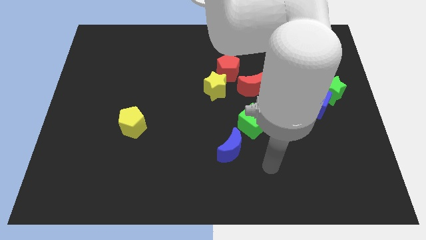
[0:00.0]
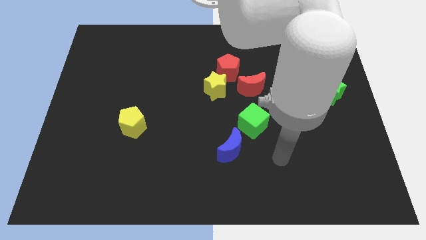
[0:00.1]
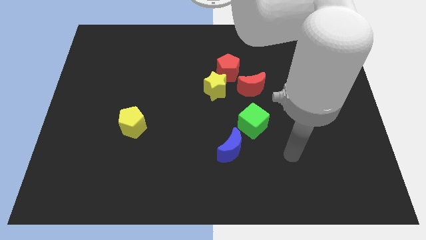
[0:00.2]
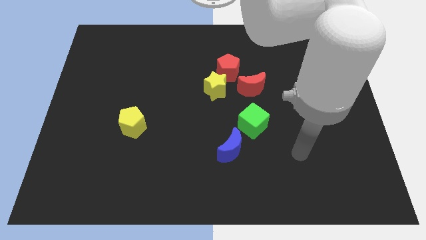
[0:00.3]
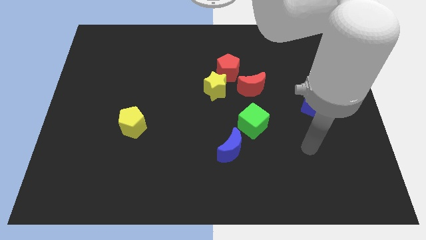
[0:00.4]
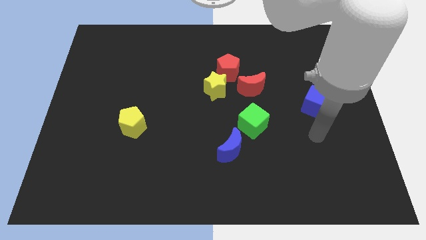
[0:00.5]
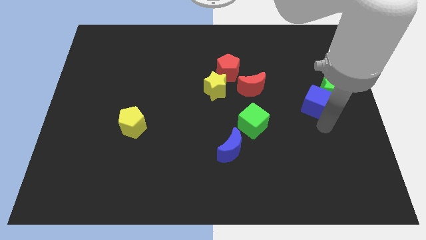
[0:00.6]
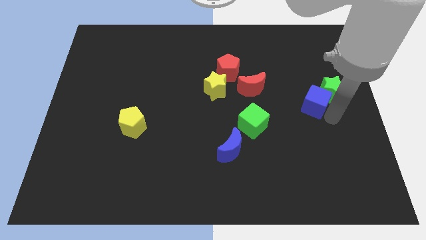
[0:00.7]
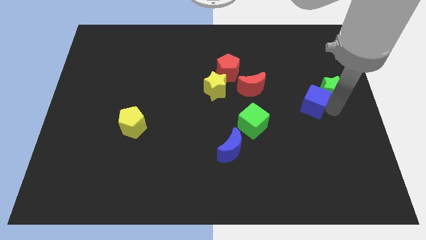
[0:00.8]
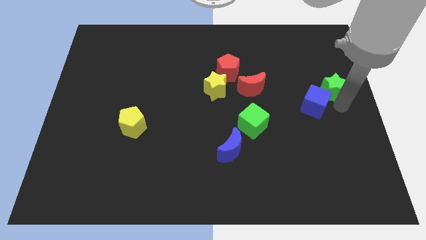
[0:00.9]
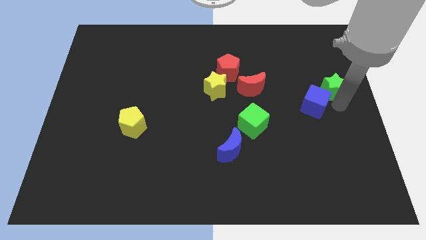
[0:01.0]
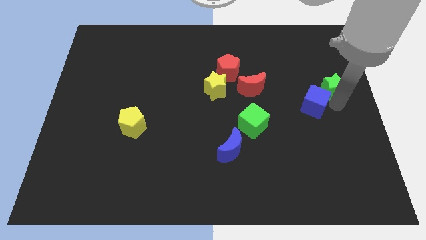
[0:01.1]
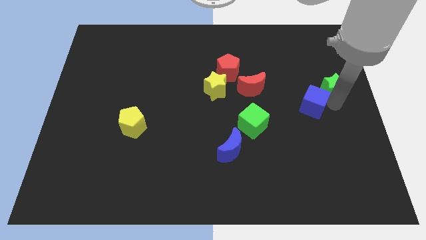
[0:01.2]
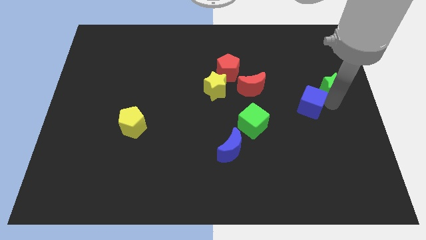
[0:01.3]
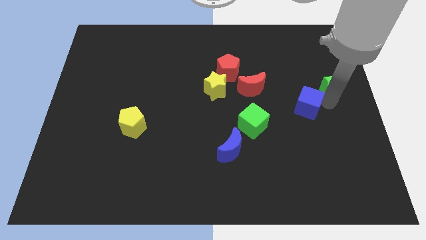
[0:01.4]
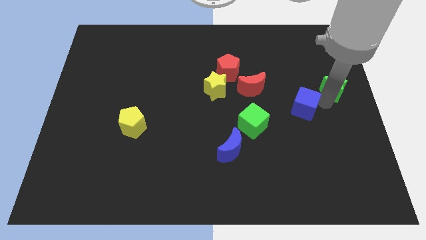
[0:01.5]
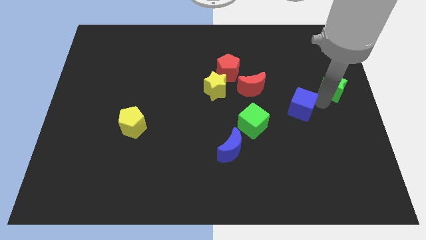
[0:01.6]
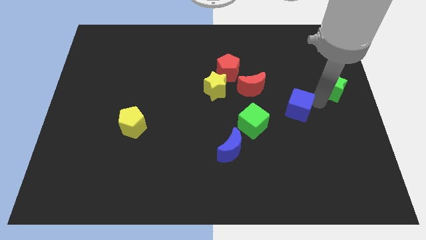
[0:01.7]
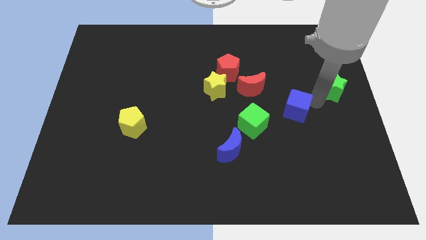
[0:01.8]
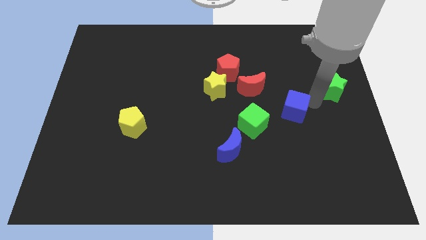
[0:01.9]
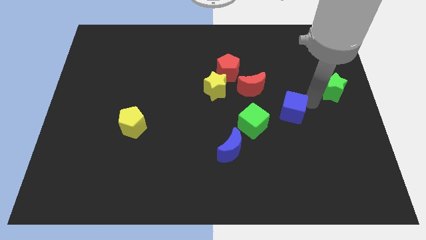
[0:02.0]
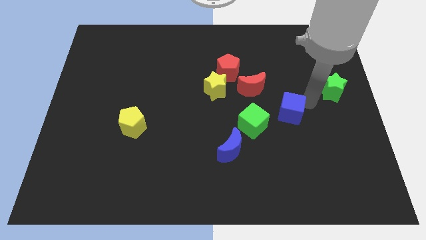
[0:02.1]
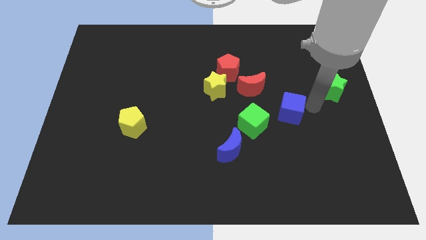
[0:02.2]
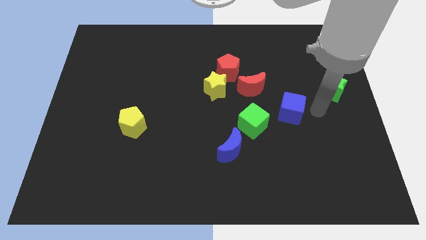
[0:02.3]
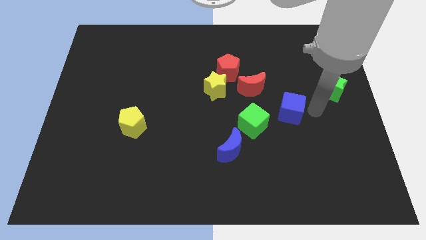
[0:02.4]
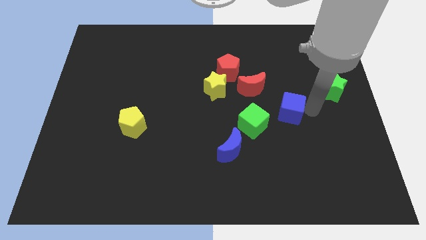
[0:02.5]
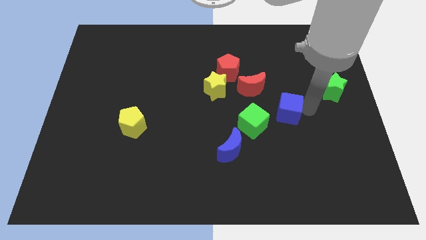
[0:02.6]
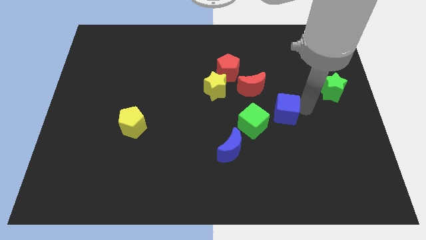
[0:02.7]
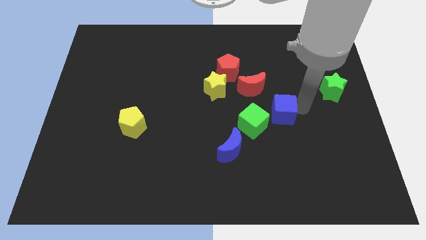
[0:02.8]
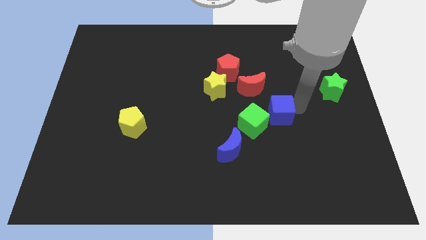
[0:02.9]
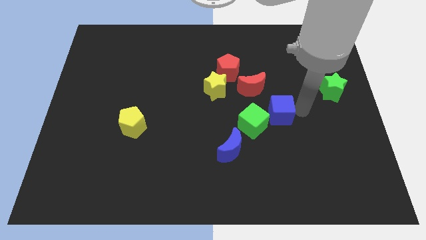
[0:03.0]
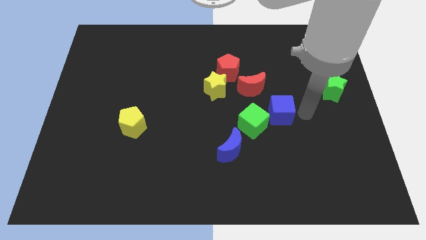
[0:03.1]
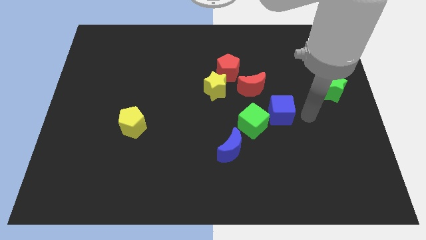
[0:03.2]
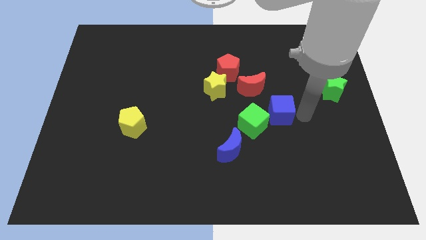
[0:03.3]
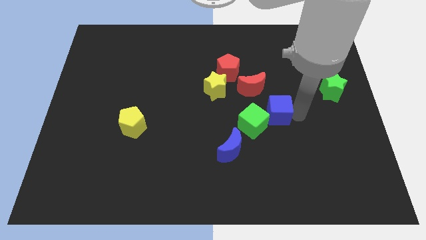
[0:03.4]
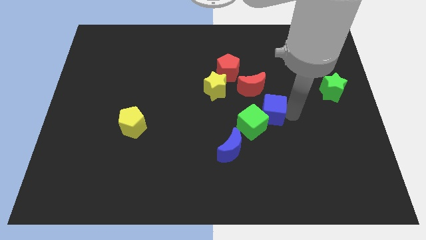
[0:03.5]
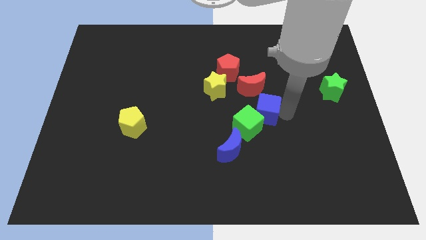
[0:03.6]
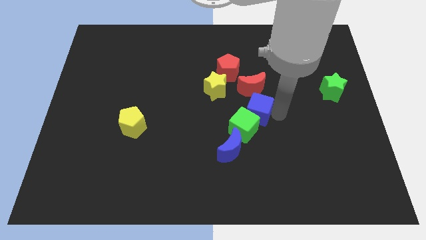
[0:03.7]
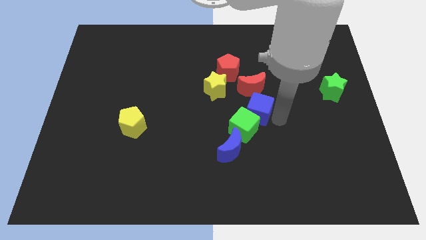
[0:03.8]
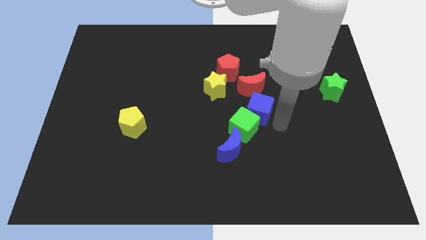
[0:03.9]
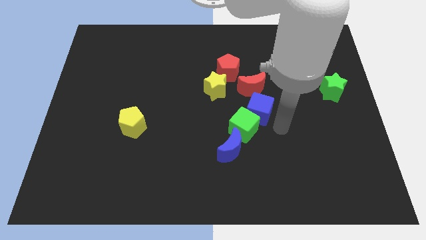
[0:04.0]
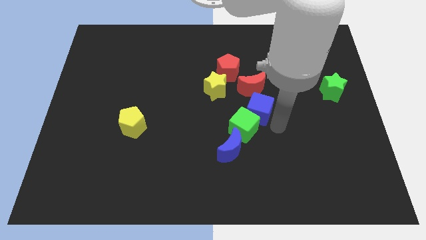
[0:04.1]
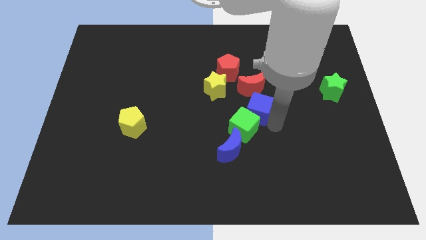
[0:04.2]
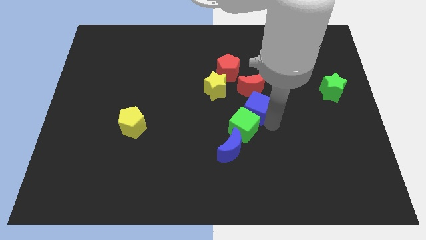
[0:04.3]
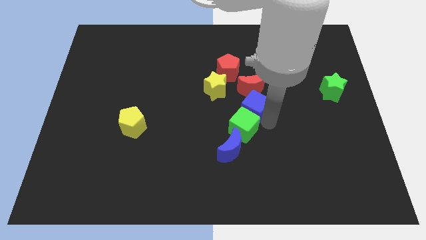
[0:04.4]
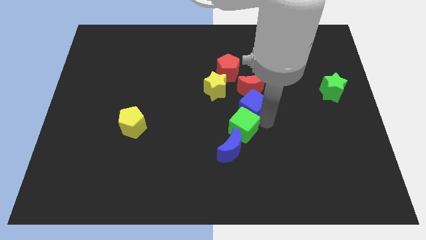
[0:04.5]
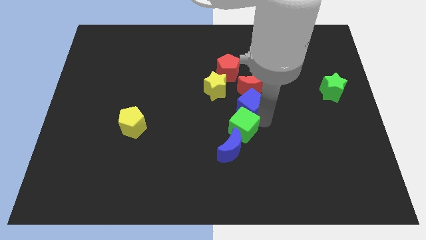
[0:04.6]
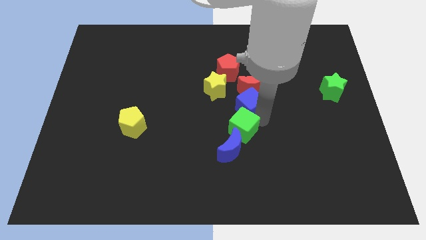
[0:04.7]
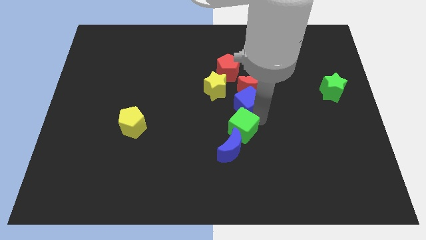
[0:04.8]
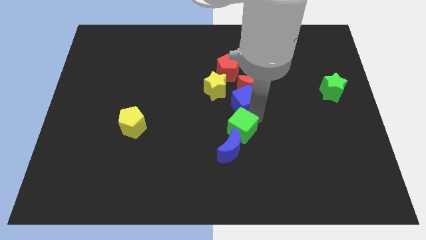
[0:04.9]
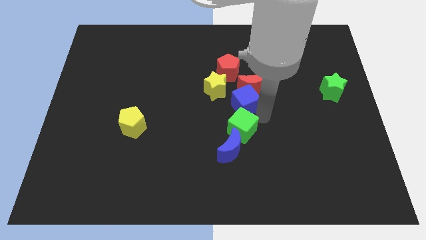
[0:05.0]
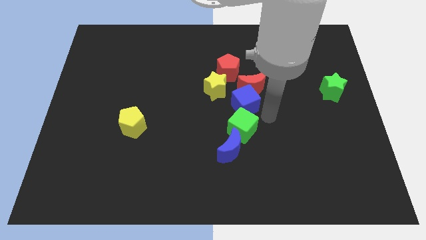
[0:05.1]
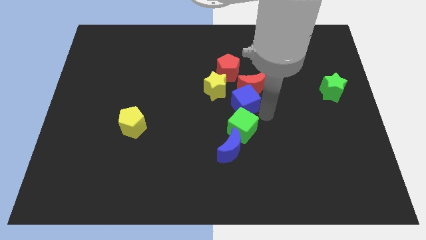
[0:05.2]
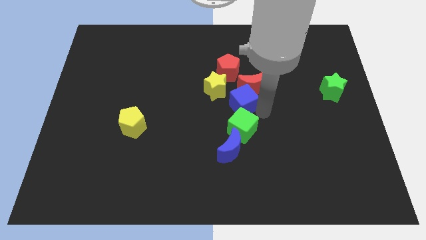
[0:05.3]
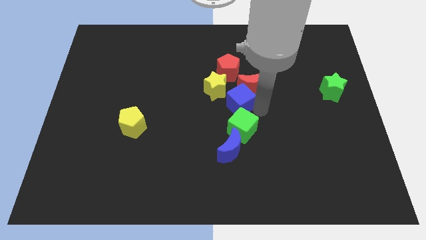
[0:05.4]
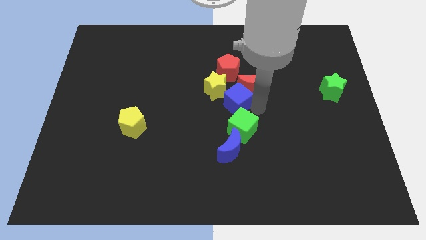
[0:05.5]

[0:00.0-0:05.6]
slide the blue cube to the yellow star
